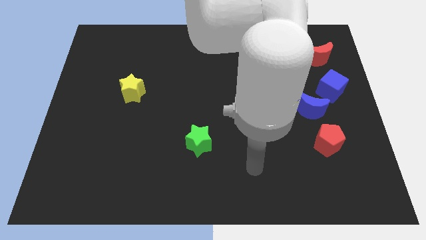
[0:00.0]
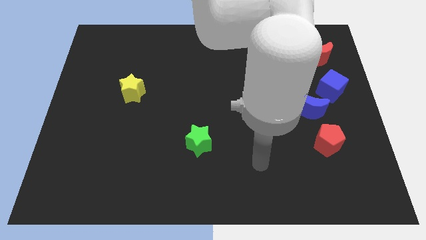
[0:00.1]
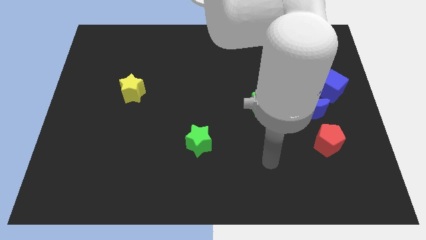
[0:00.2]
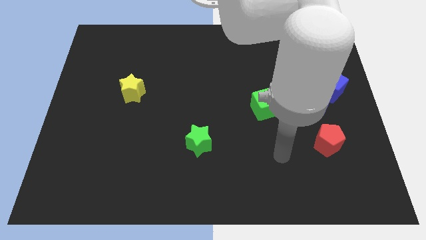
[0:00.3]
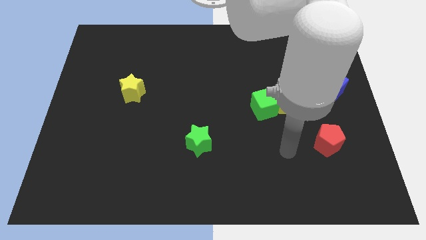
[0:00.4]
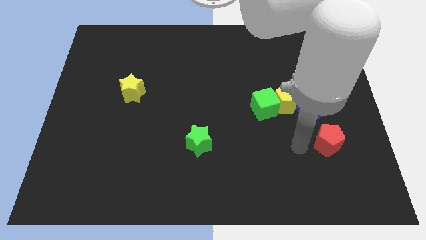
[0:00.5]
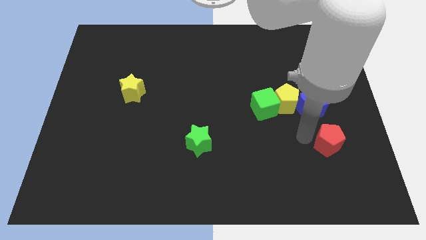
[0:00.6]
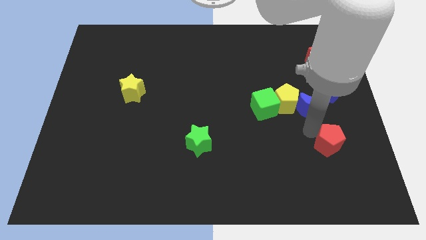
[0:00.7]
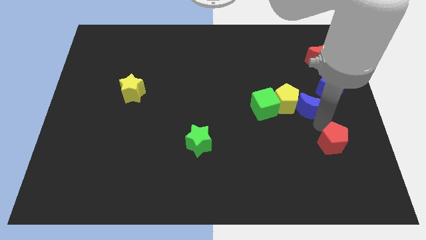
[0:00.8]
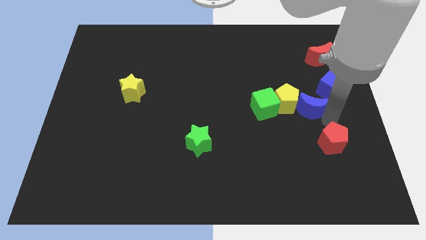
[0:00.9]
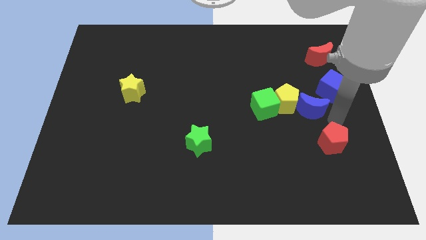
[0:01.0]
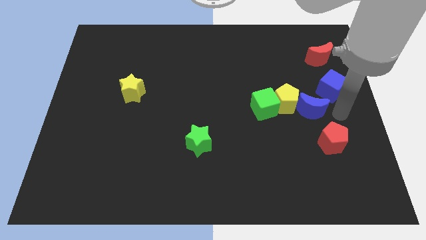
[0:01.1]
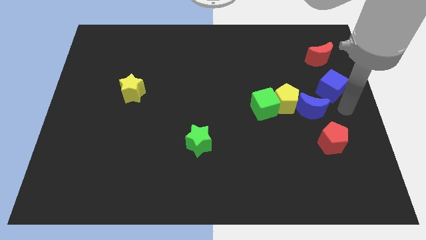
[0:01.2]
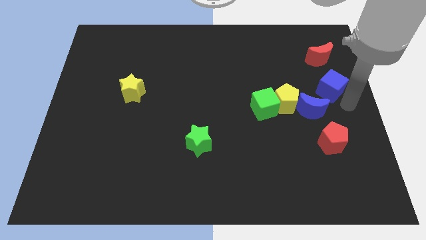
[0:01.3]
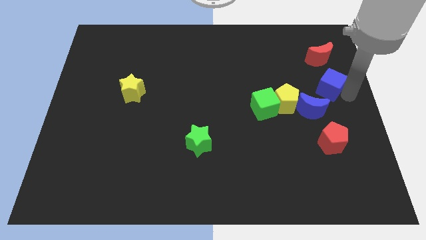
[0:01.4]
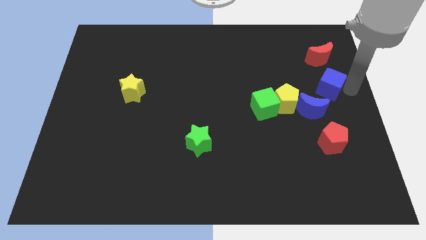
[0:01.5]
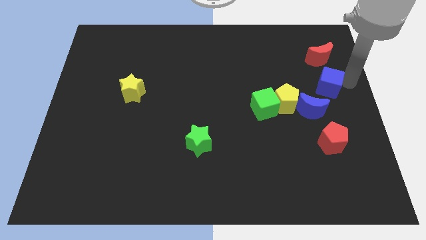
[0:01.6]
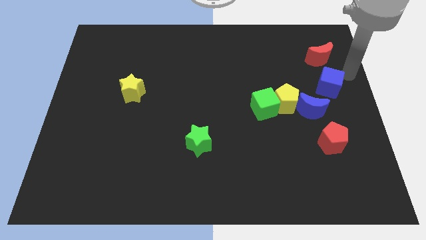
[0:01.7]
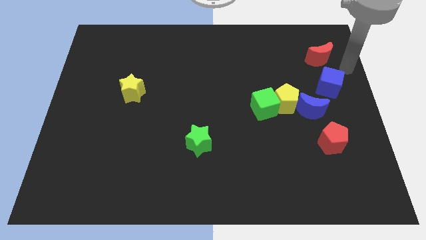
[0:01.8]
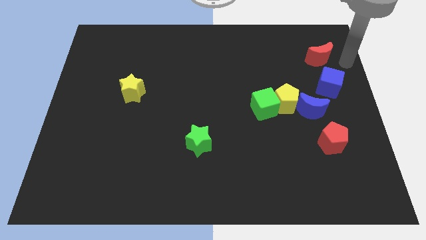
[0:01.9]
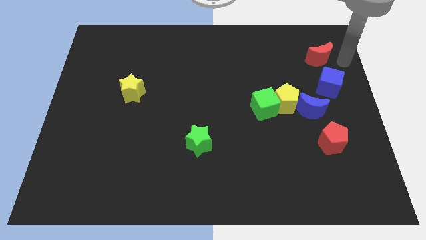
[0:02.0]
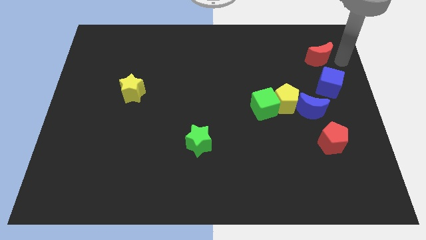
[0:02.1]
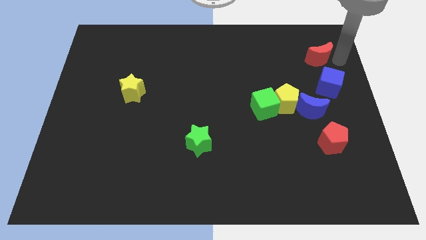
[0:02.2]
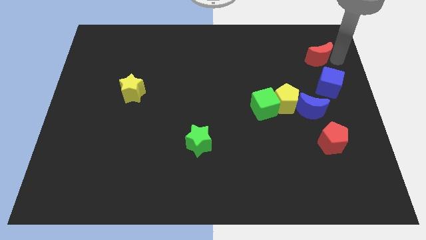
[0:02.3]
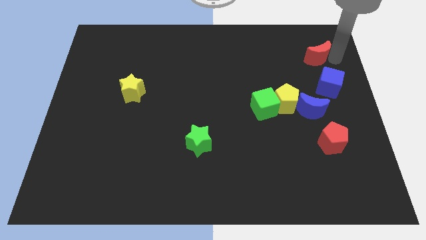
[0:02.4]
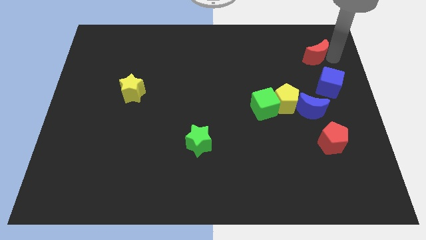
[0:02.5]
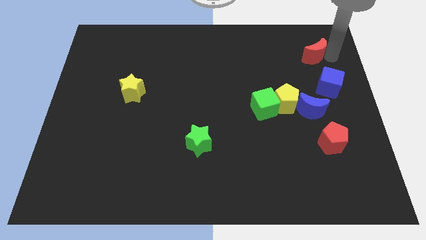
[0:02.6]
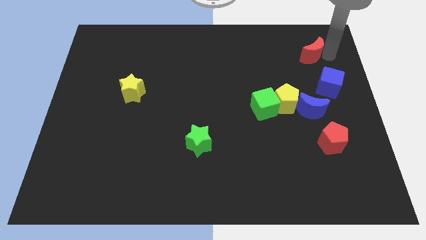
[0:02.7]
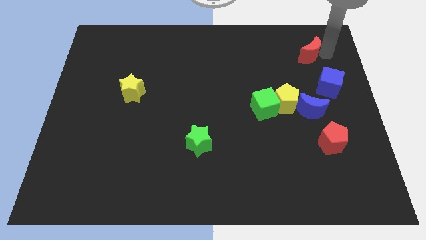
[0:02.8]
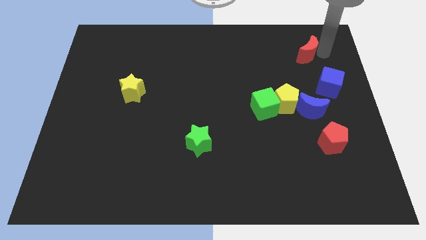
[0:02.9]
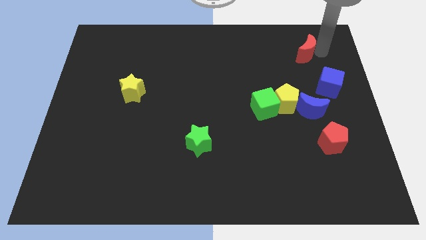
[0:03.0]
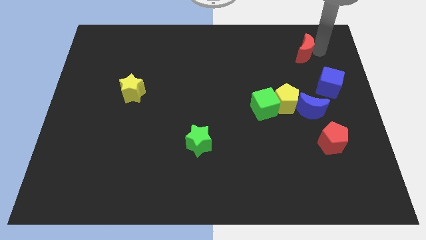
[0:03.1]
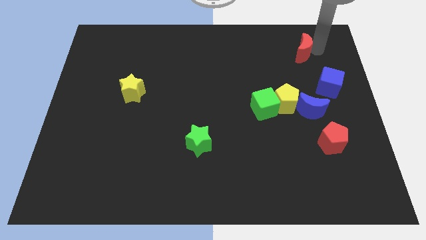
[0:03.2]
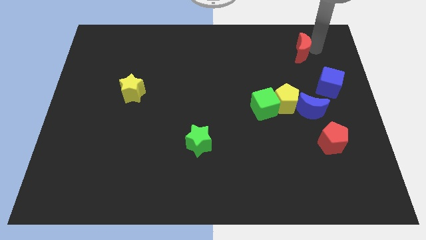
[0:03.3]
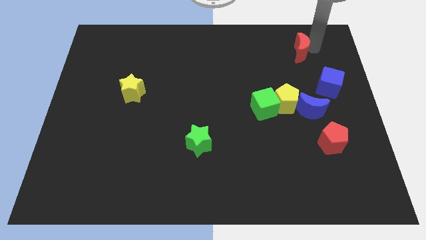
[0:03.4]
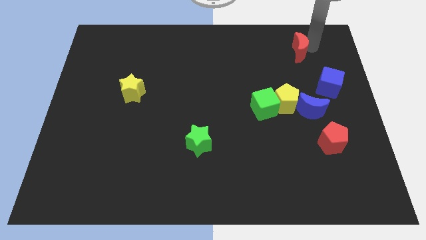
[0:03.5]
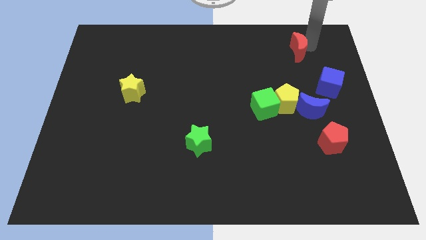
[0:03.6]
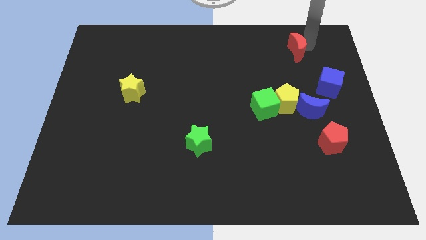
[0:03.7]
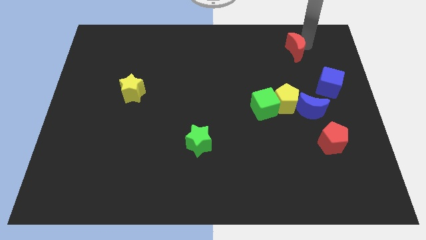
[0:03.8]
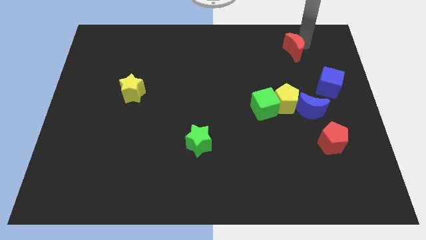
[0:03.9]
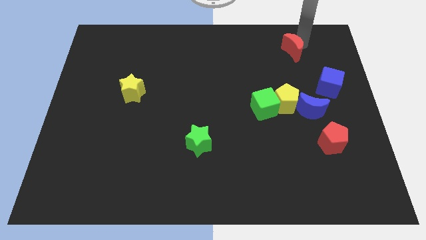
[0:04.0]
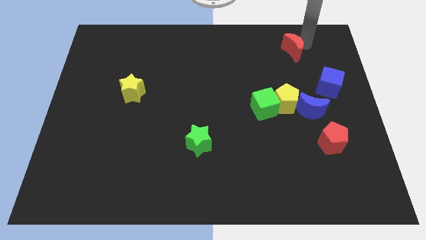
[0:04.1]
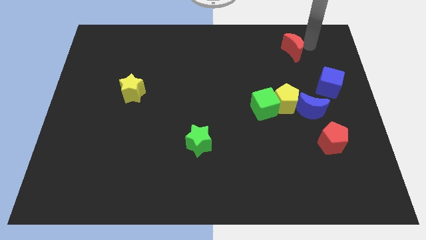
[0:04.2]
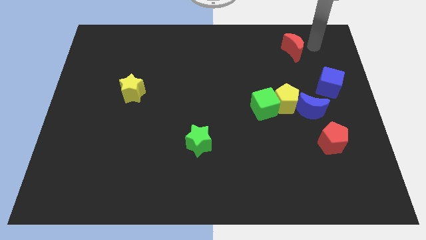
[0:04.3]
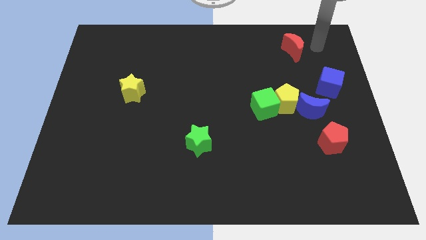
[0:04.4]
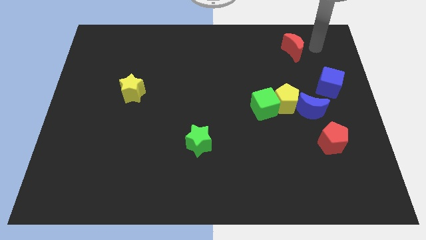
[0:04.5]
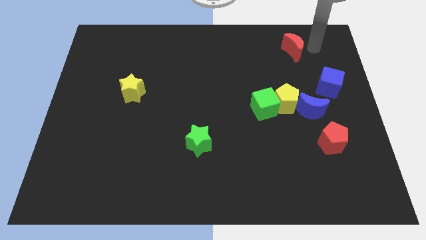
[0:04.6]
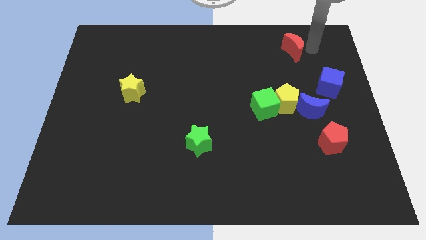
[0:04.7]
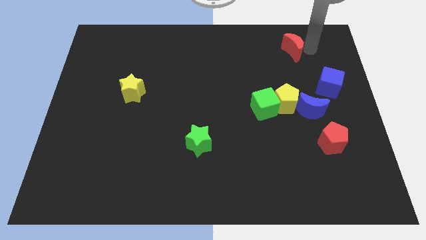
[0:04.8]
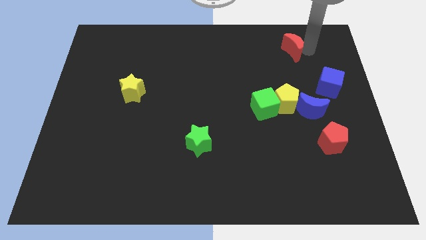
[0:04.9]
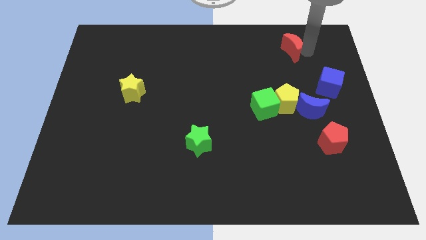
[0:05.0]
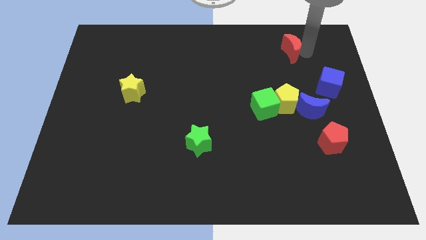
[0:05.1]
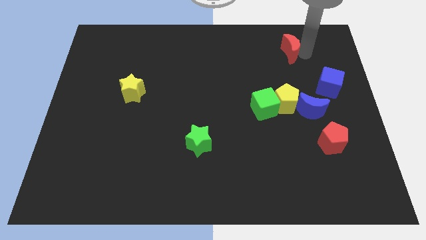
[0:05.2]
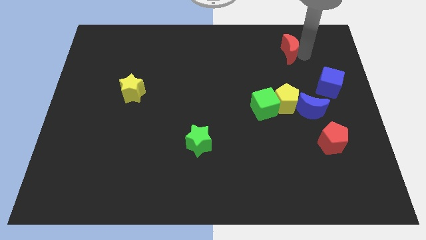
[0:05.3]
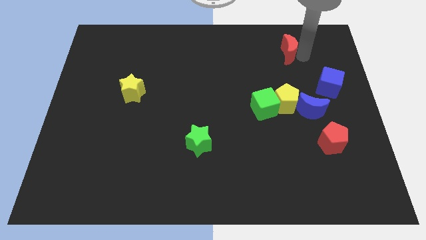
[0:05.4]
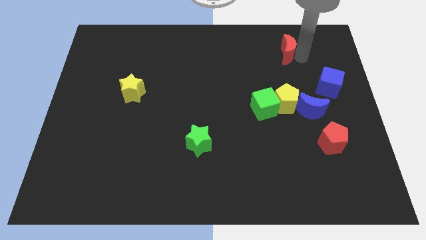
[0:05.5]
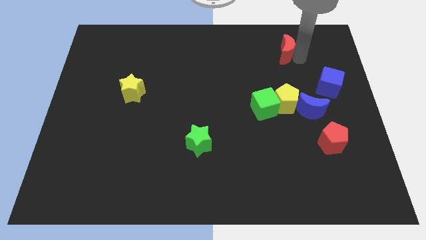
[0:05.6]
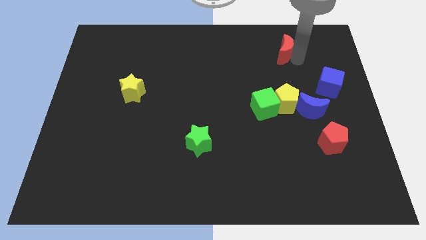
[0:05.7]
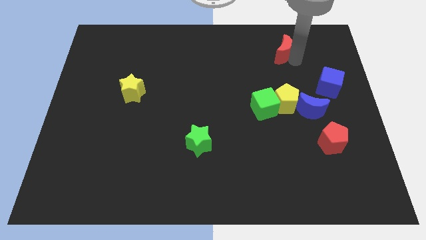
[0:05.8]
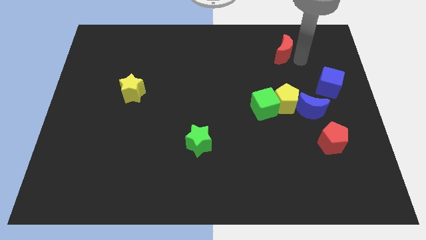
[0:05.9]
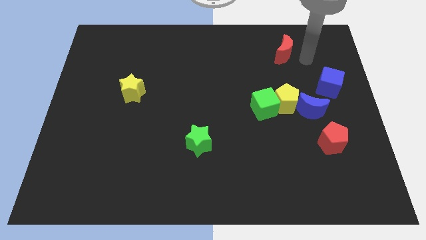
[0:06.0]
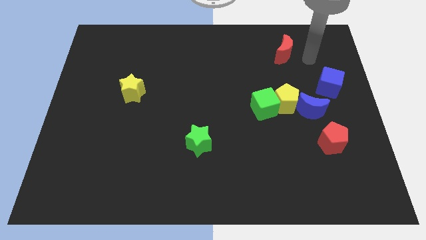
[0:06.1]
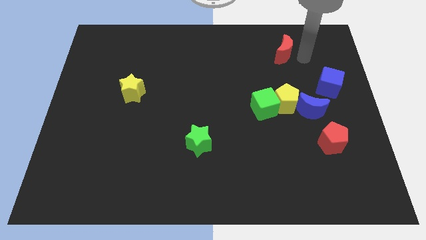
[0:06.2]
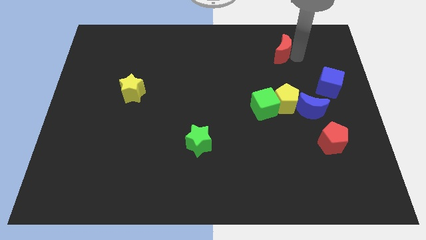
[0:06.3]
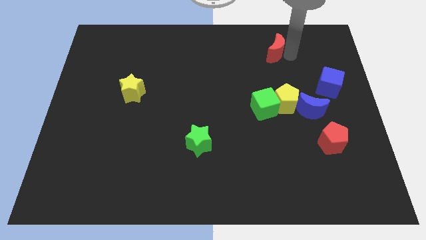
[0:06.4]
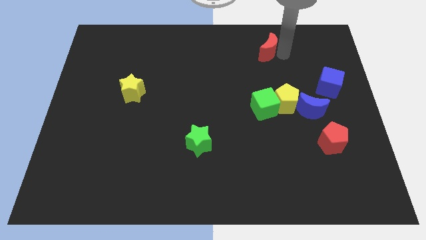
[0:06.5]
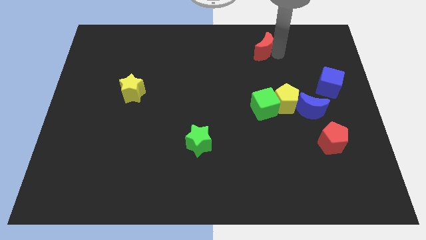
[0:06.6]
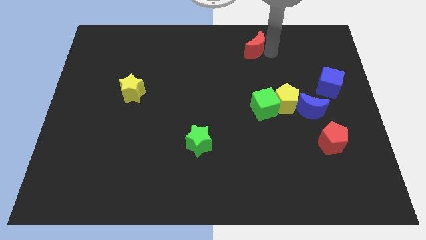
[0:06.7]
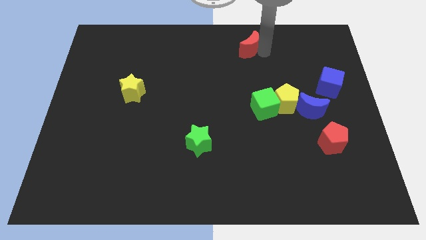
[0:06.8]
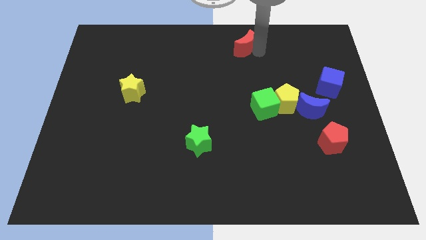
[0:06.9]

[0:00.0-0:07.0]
slide the red moon to the top side
